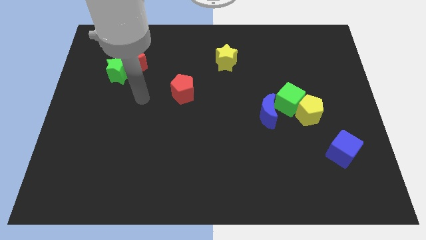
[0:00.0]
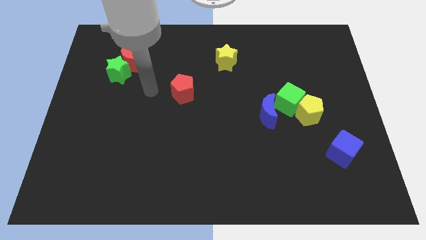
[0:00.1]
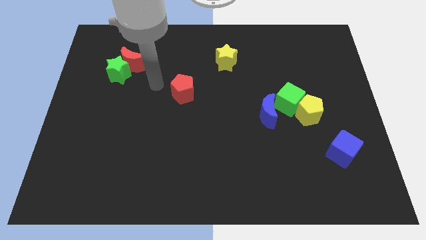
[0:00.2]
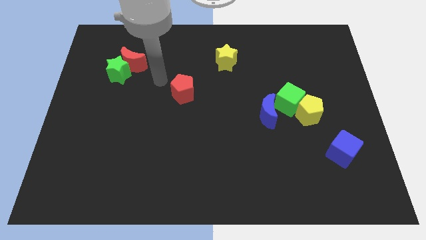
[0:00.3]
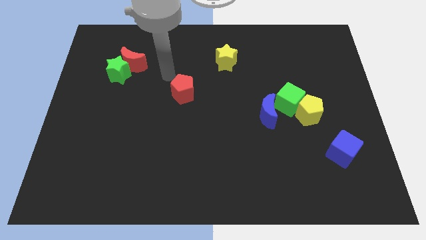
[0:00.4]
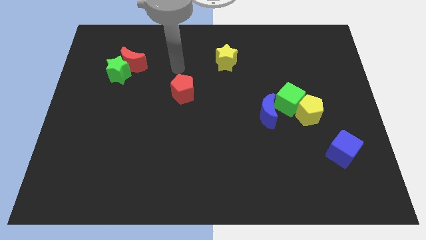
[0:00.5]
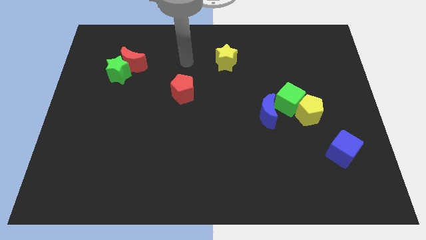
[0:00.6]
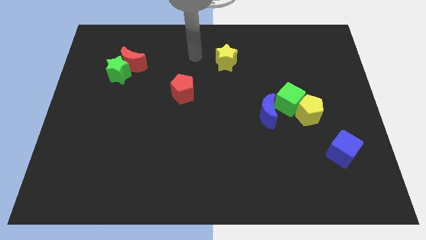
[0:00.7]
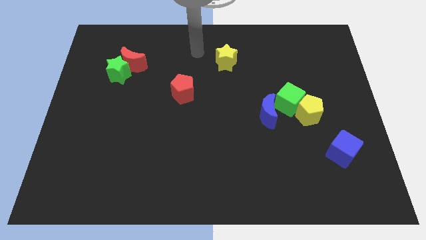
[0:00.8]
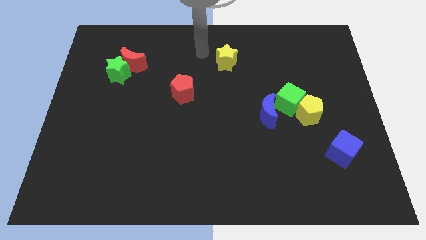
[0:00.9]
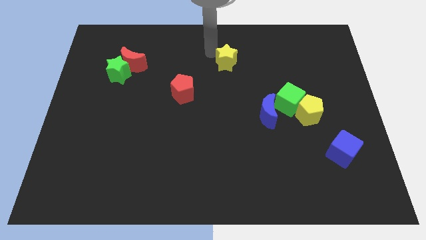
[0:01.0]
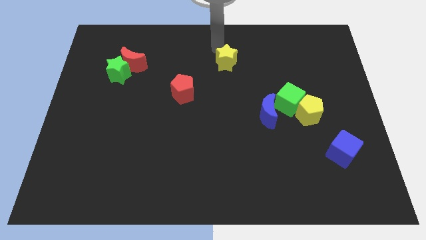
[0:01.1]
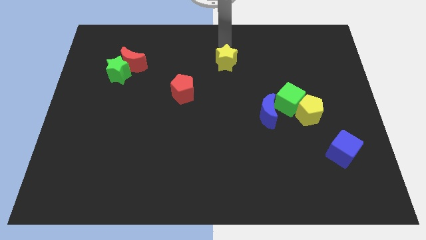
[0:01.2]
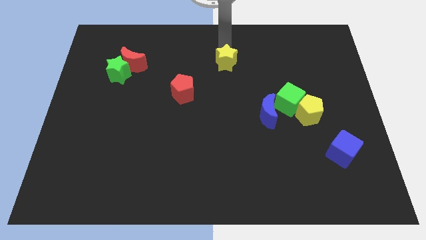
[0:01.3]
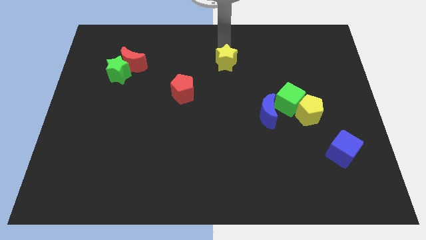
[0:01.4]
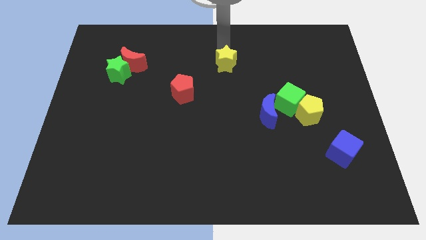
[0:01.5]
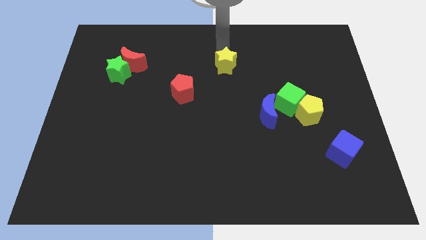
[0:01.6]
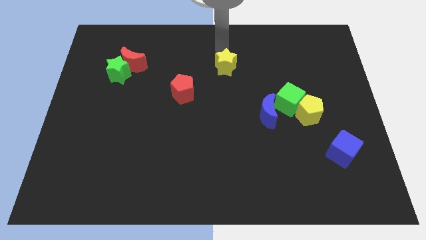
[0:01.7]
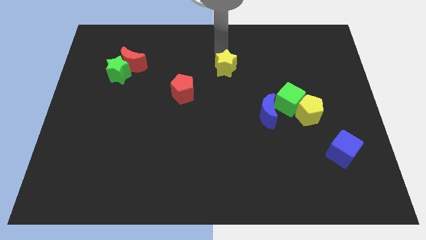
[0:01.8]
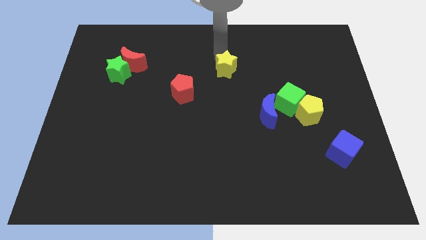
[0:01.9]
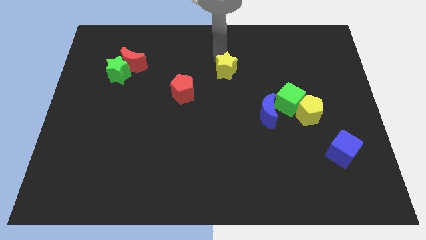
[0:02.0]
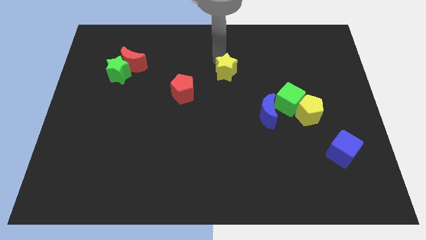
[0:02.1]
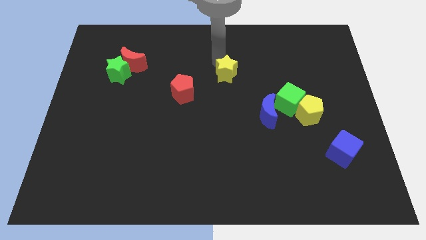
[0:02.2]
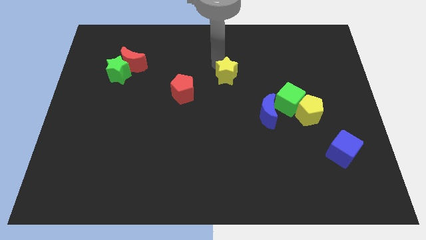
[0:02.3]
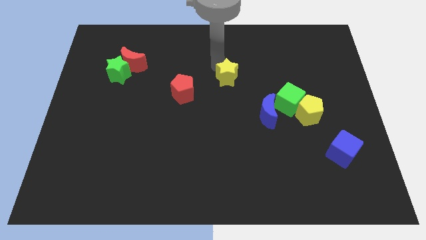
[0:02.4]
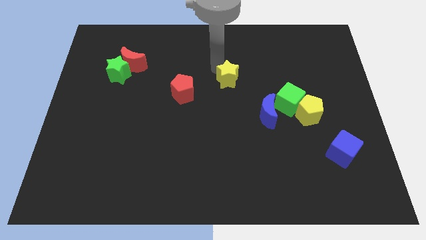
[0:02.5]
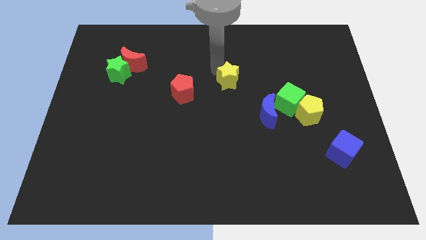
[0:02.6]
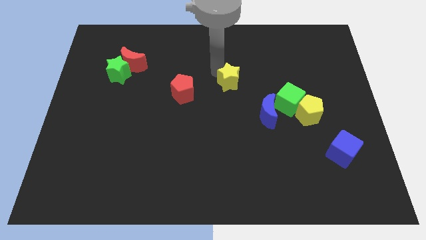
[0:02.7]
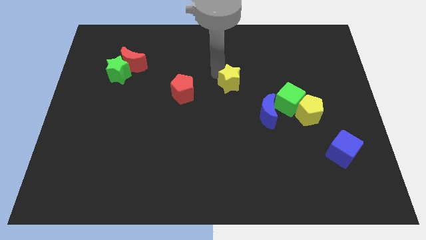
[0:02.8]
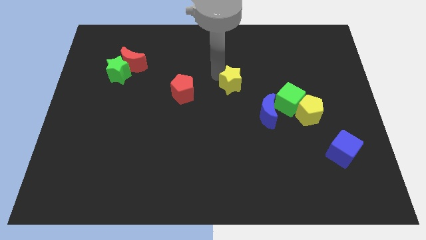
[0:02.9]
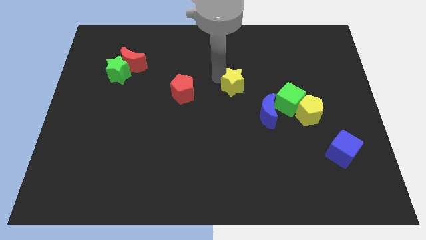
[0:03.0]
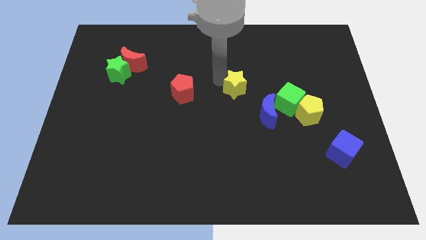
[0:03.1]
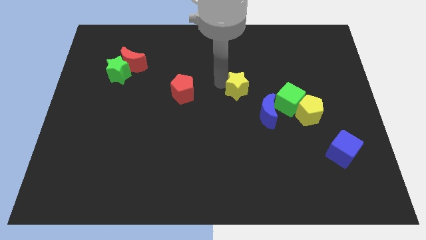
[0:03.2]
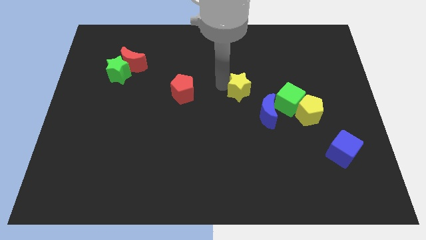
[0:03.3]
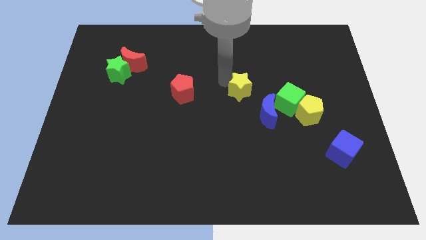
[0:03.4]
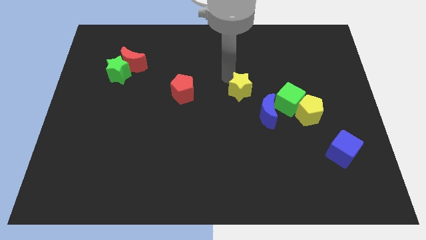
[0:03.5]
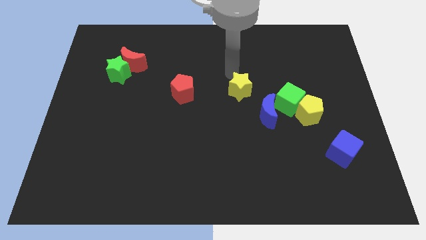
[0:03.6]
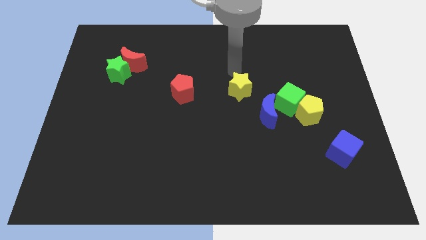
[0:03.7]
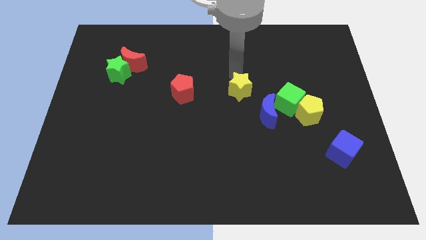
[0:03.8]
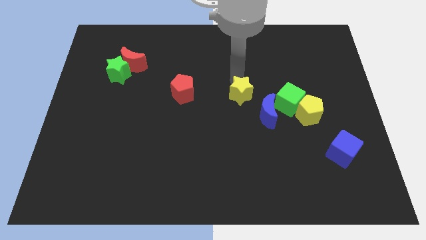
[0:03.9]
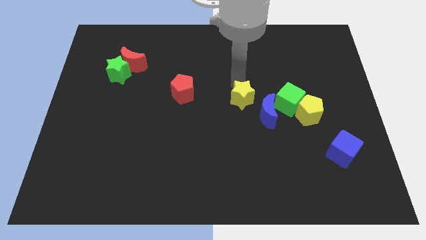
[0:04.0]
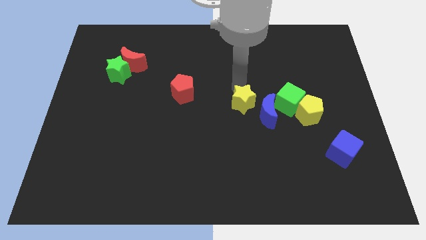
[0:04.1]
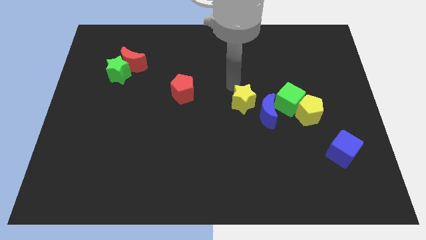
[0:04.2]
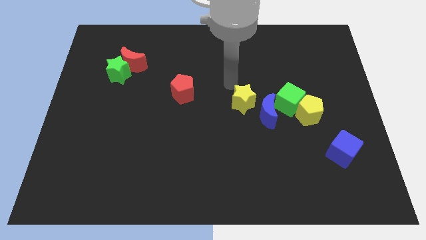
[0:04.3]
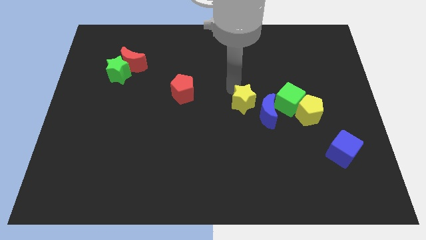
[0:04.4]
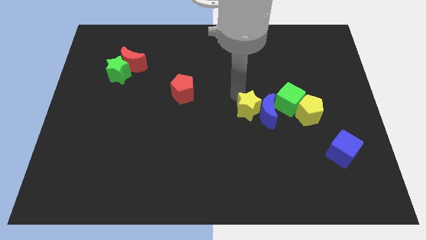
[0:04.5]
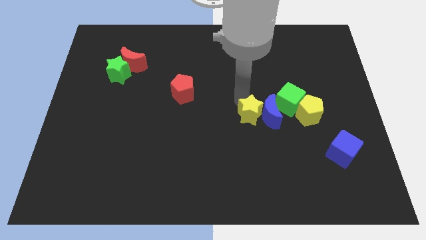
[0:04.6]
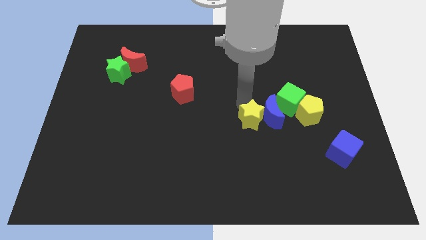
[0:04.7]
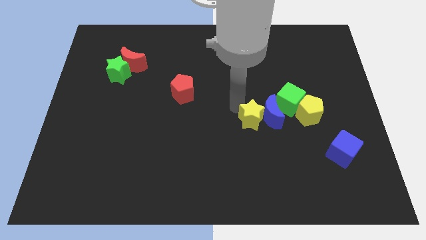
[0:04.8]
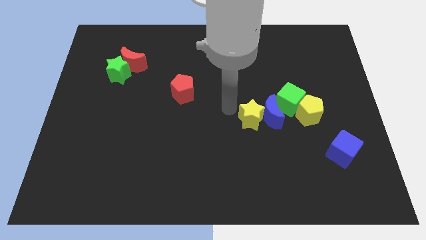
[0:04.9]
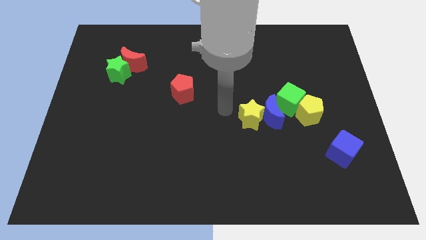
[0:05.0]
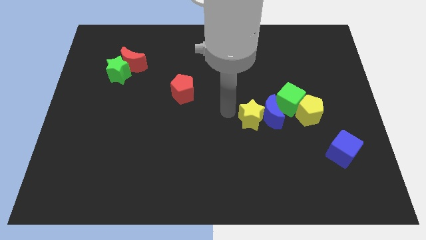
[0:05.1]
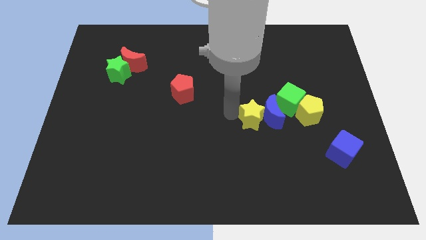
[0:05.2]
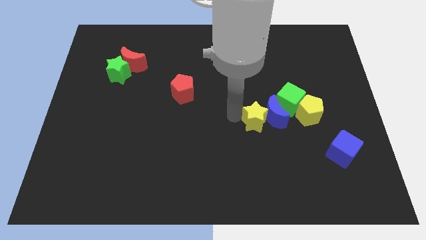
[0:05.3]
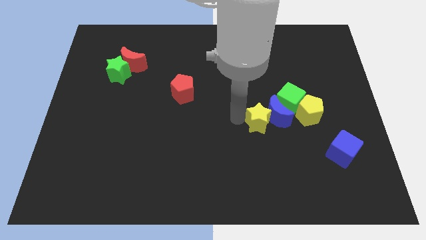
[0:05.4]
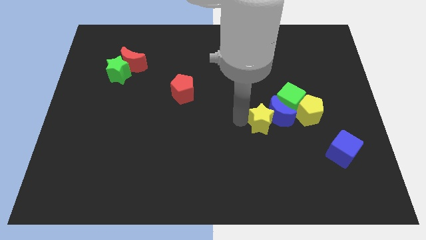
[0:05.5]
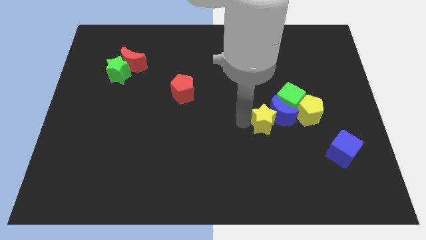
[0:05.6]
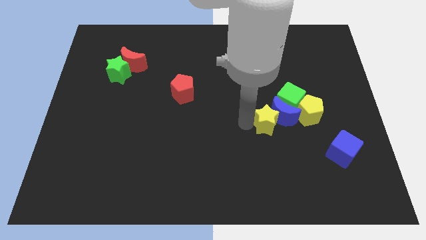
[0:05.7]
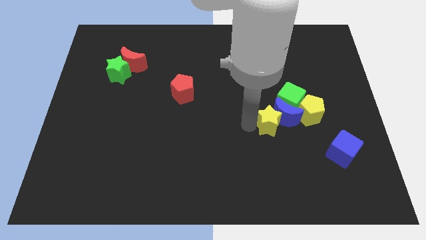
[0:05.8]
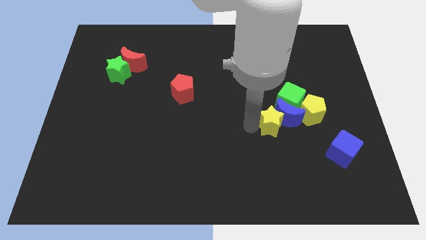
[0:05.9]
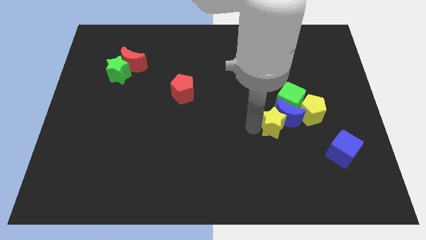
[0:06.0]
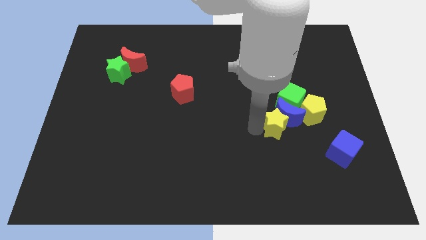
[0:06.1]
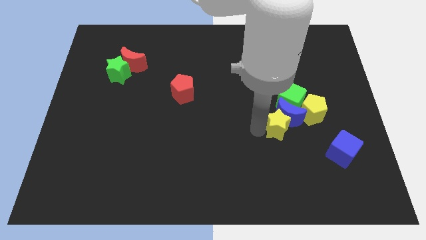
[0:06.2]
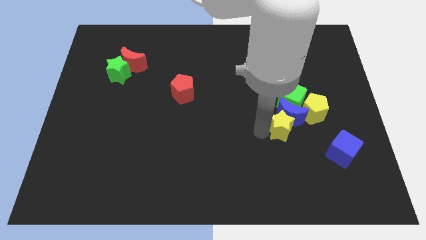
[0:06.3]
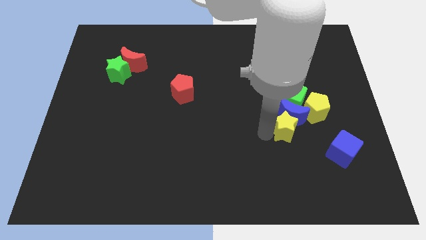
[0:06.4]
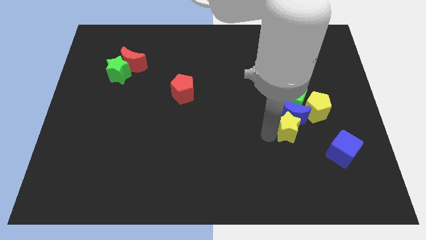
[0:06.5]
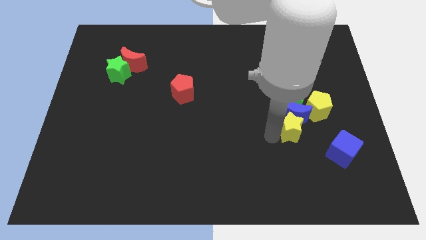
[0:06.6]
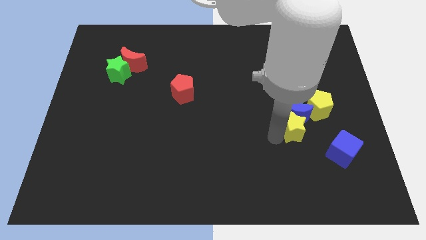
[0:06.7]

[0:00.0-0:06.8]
push the yellow star diagonally up and to the left of the blue cube

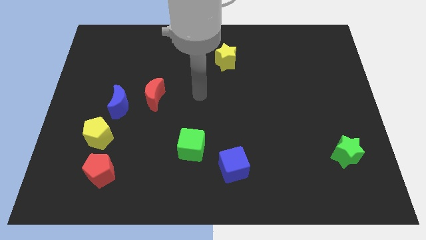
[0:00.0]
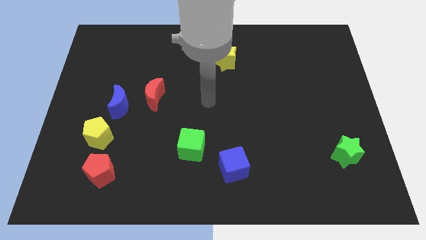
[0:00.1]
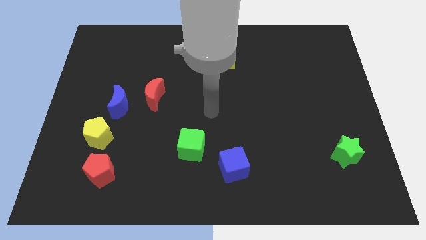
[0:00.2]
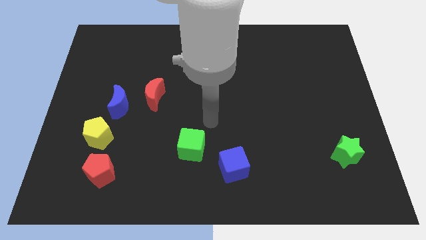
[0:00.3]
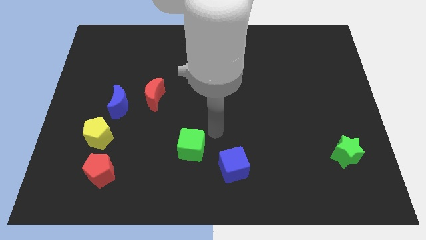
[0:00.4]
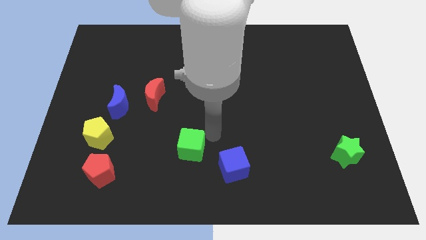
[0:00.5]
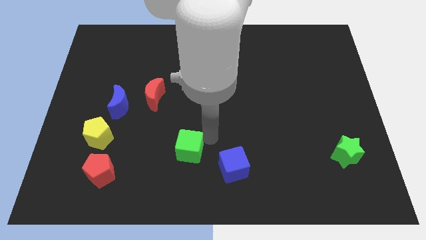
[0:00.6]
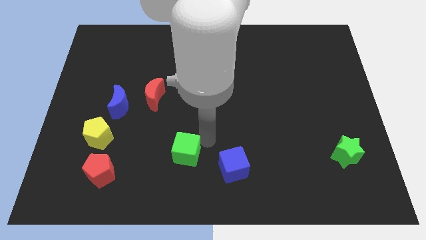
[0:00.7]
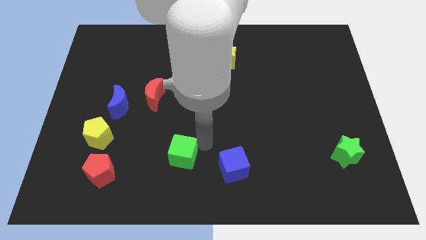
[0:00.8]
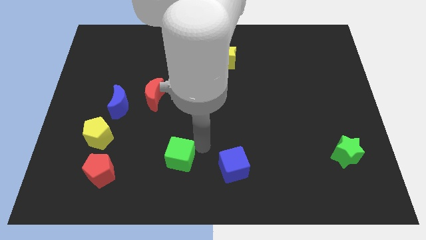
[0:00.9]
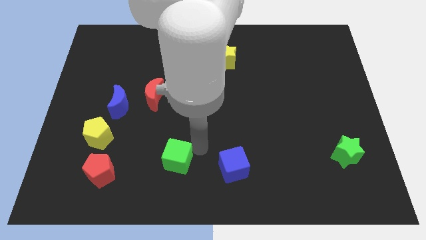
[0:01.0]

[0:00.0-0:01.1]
slide the green cube just right of the red pentagon
